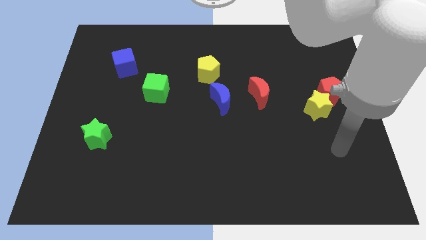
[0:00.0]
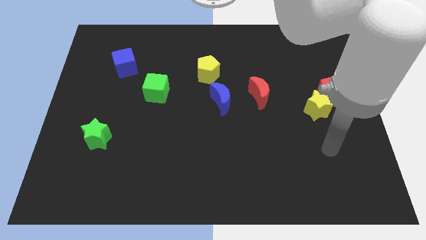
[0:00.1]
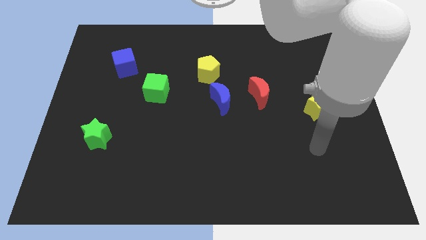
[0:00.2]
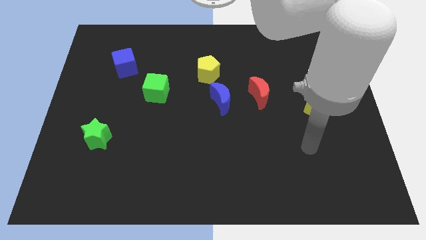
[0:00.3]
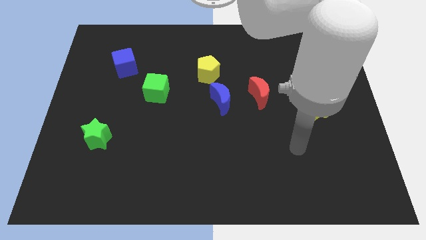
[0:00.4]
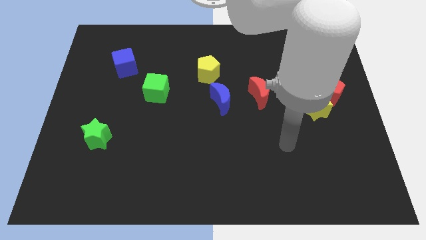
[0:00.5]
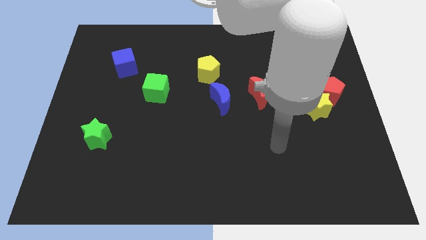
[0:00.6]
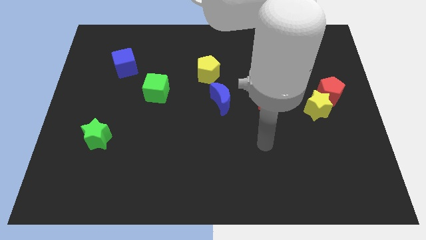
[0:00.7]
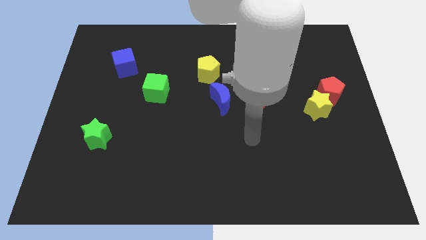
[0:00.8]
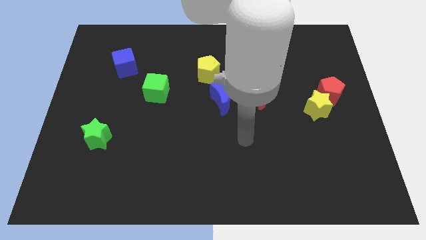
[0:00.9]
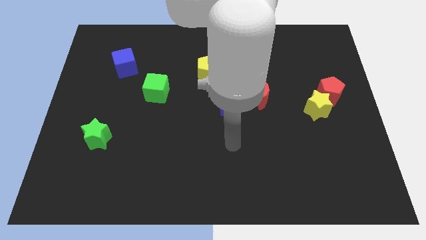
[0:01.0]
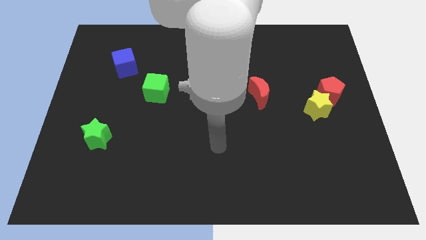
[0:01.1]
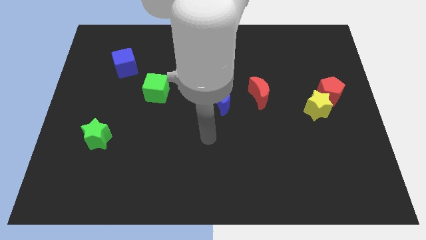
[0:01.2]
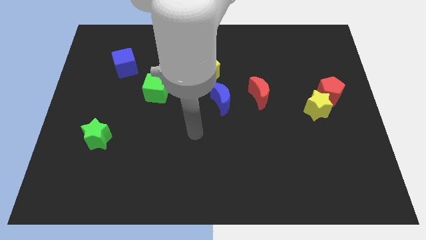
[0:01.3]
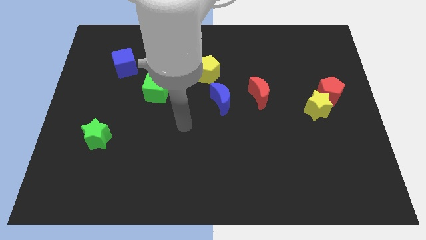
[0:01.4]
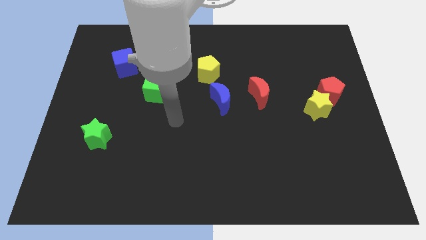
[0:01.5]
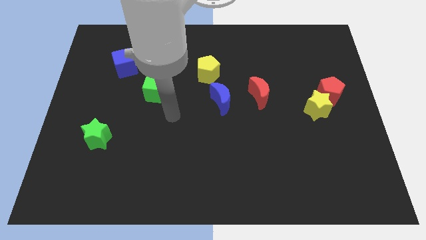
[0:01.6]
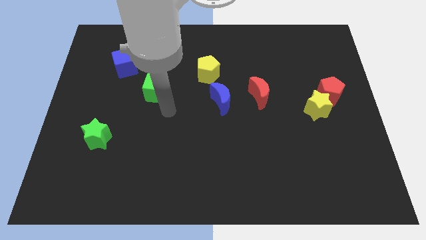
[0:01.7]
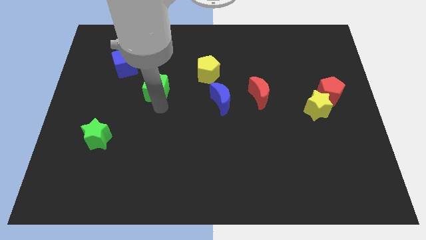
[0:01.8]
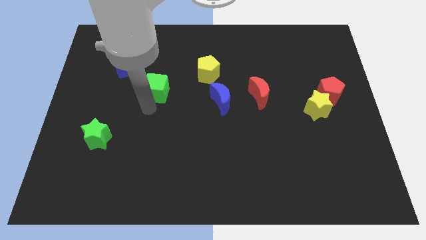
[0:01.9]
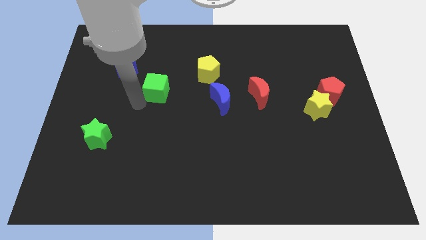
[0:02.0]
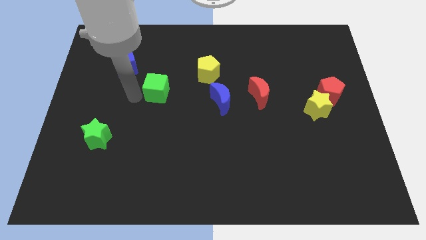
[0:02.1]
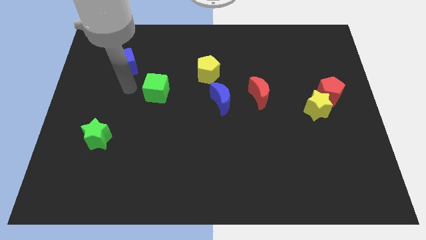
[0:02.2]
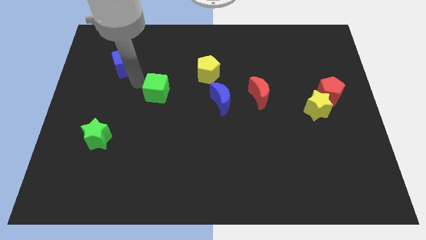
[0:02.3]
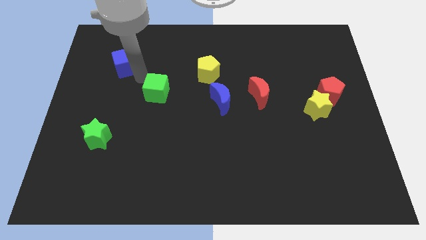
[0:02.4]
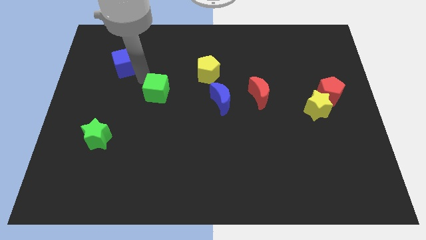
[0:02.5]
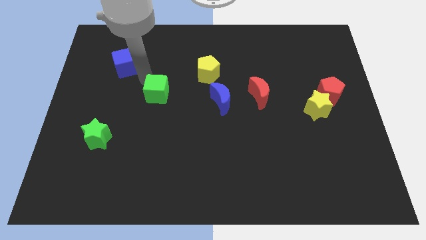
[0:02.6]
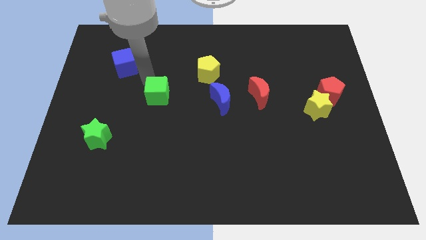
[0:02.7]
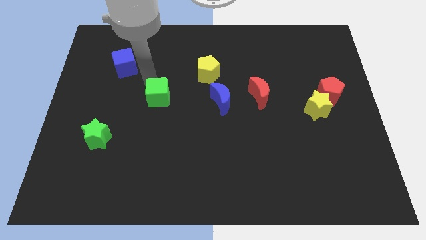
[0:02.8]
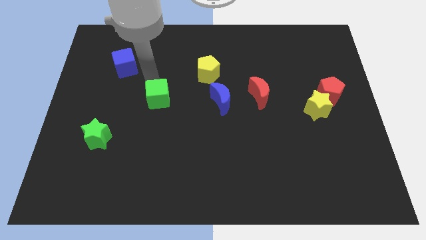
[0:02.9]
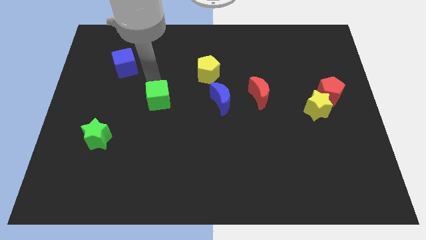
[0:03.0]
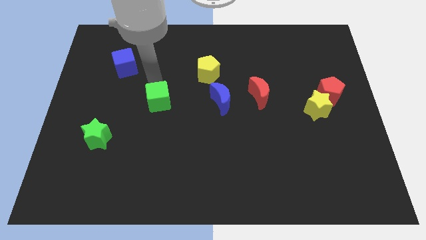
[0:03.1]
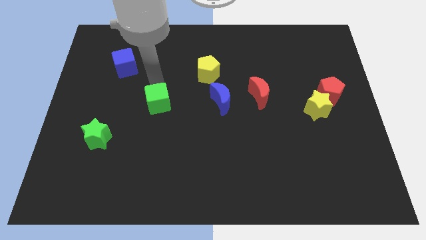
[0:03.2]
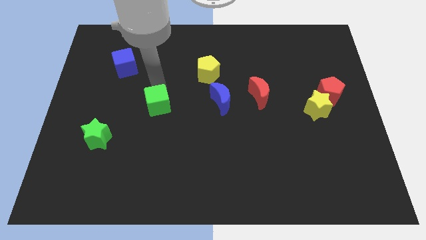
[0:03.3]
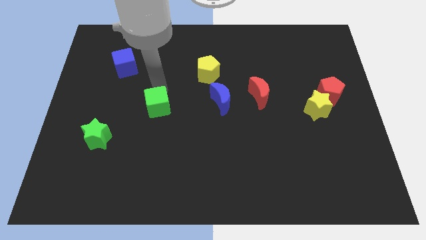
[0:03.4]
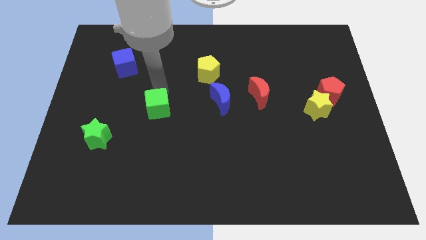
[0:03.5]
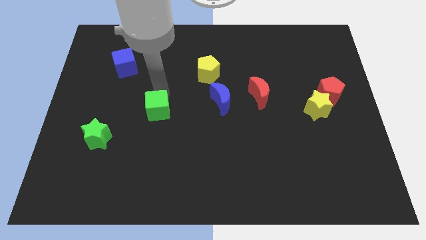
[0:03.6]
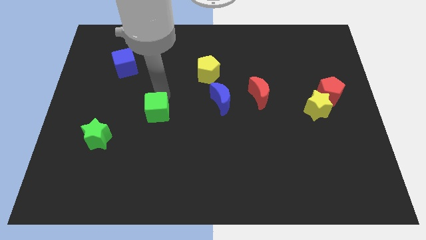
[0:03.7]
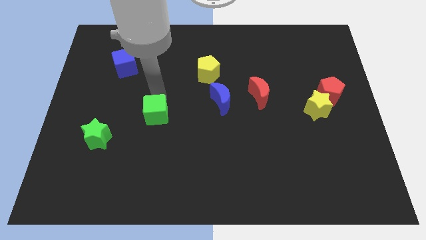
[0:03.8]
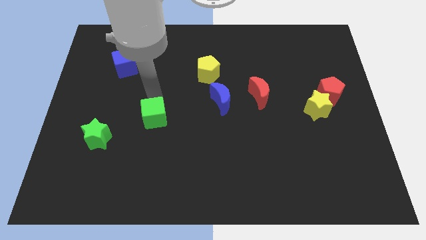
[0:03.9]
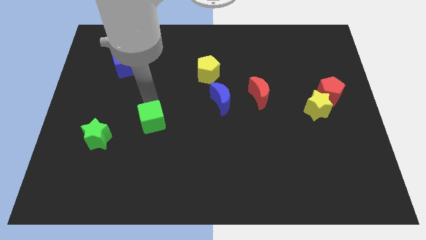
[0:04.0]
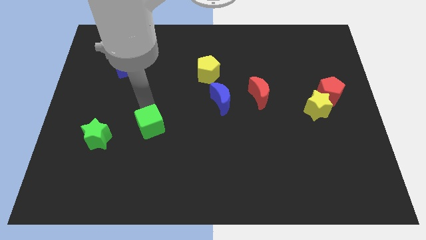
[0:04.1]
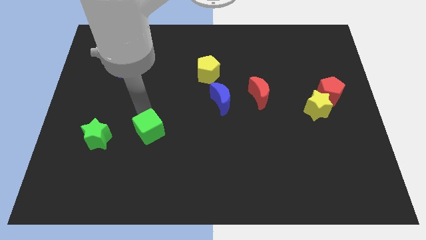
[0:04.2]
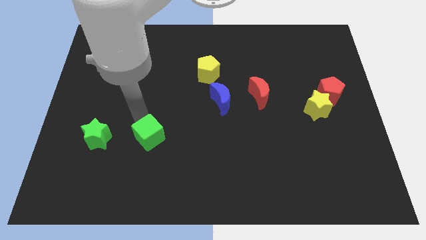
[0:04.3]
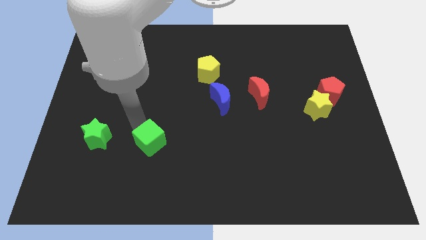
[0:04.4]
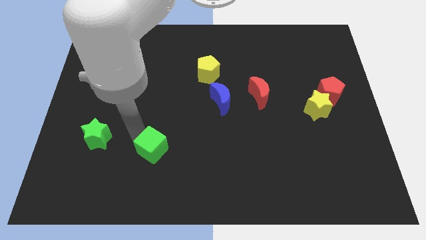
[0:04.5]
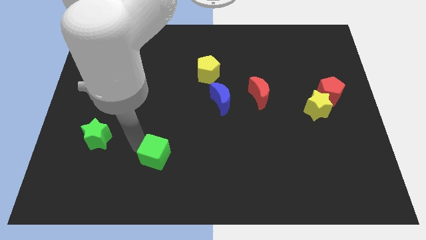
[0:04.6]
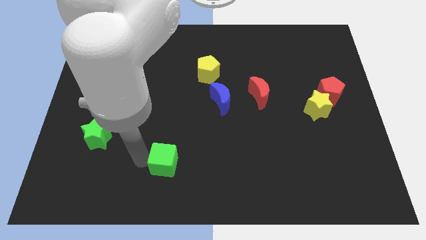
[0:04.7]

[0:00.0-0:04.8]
slide the green cube a little bit down and right diagonally

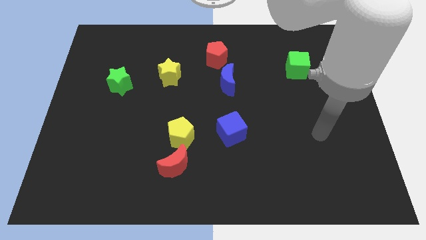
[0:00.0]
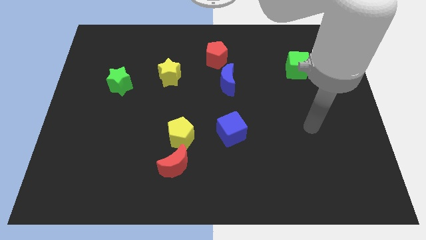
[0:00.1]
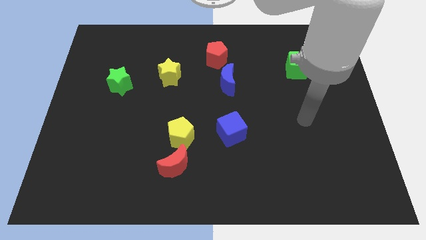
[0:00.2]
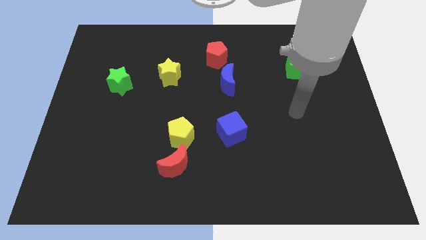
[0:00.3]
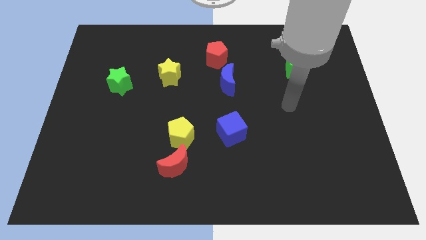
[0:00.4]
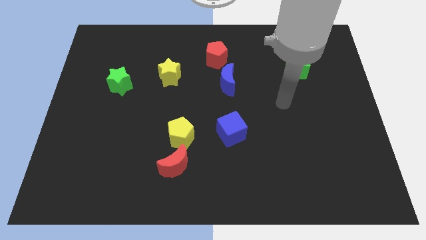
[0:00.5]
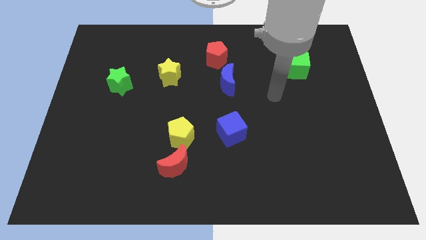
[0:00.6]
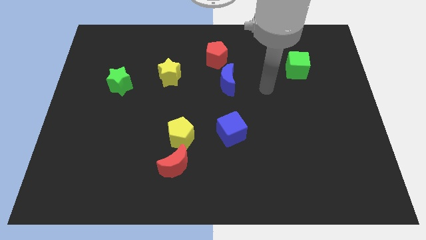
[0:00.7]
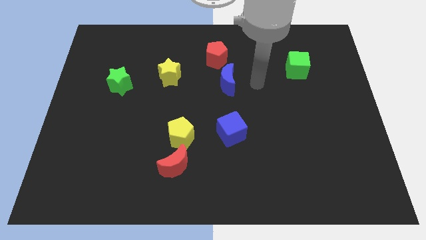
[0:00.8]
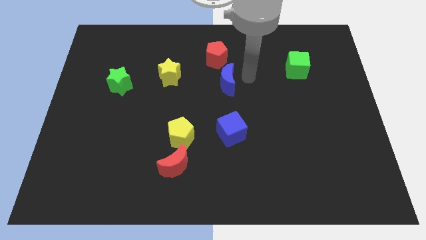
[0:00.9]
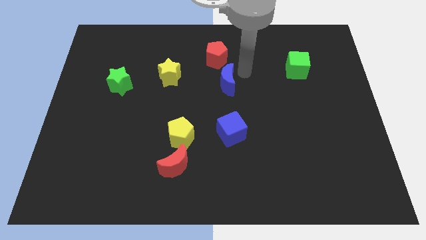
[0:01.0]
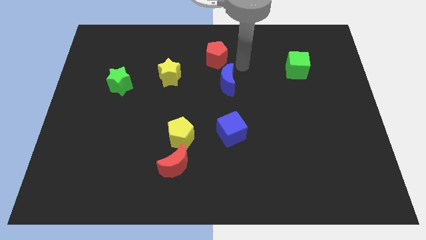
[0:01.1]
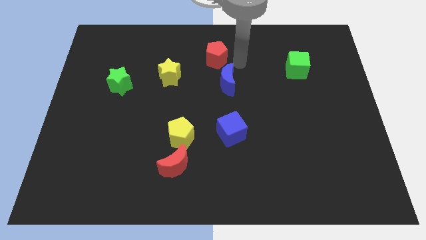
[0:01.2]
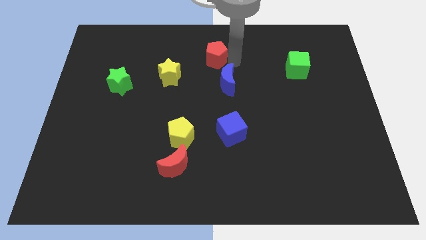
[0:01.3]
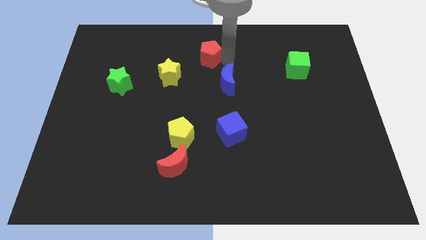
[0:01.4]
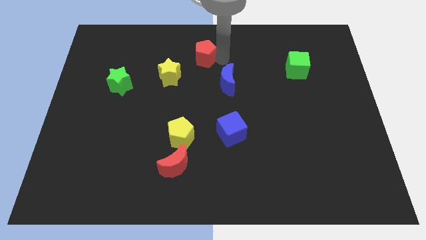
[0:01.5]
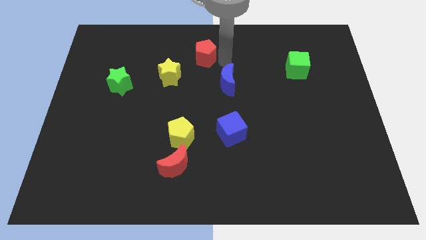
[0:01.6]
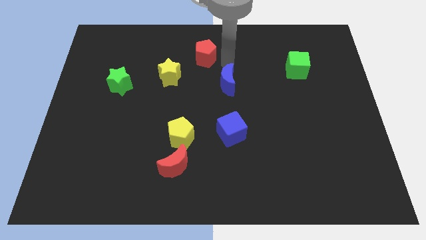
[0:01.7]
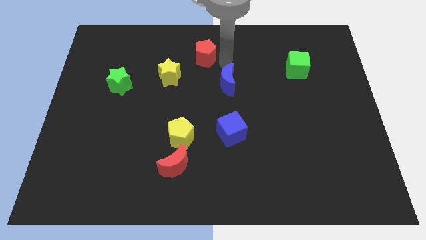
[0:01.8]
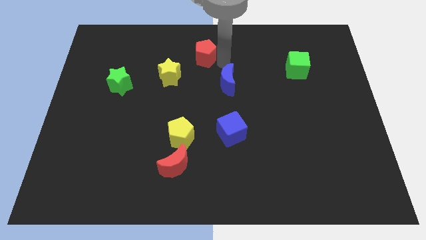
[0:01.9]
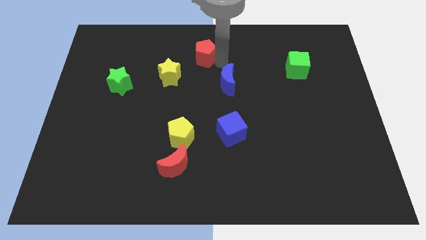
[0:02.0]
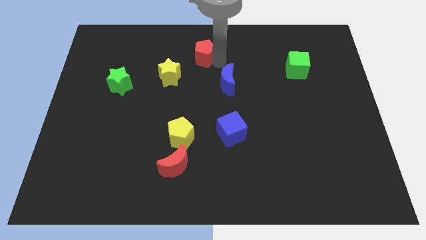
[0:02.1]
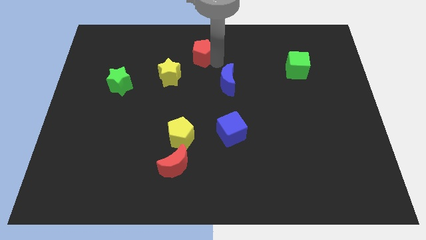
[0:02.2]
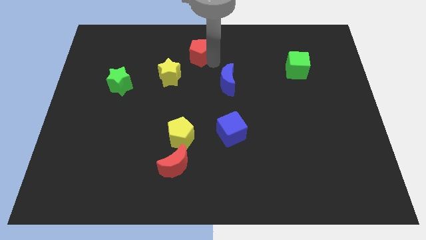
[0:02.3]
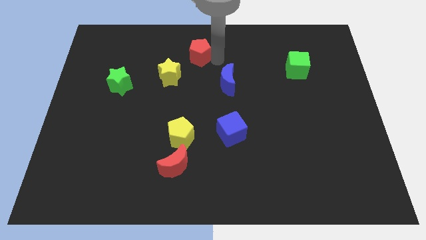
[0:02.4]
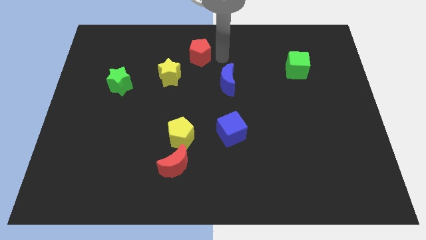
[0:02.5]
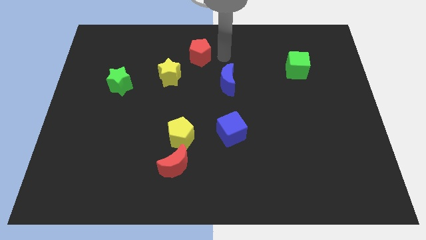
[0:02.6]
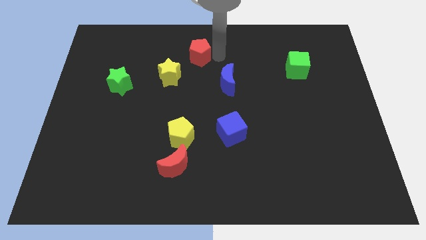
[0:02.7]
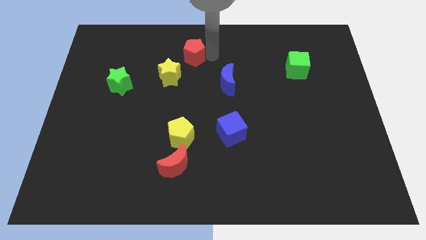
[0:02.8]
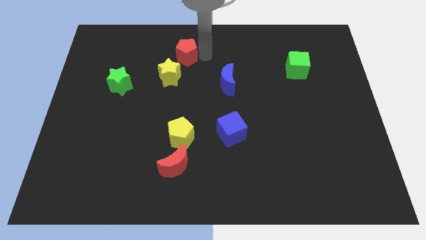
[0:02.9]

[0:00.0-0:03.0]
slide the red pentagon to the left a little
